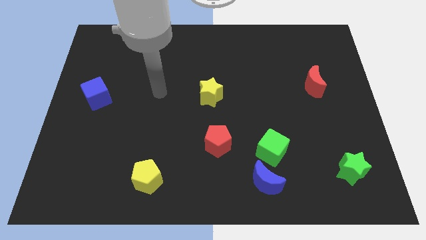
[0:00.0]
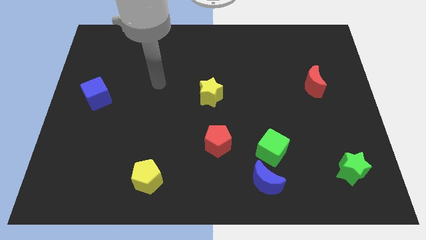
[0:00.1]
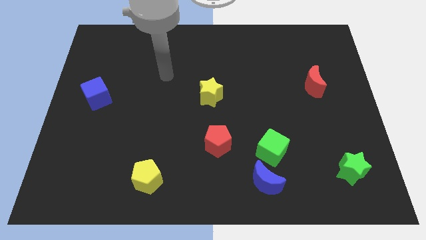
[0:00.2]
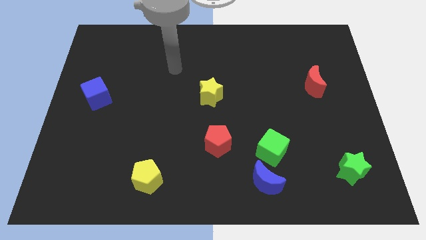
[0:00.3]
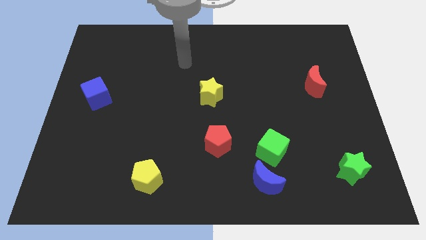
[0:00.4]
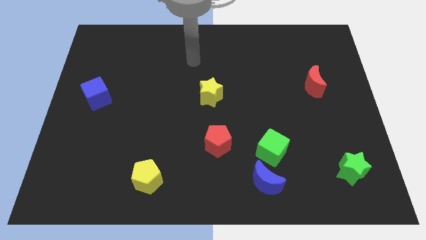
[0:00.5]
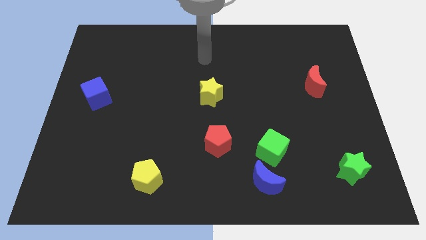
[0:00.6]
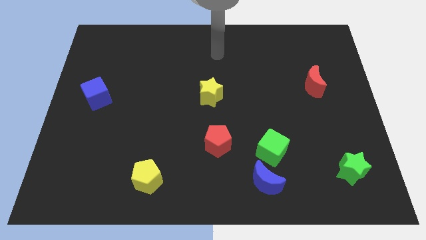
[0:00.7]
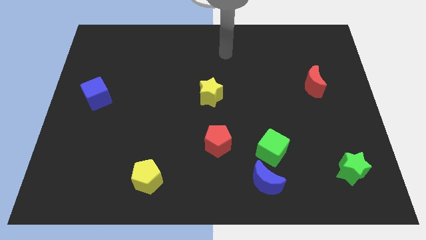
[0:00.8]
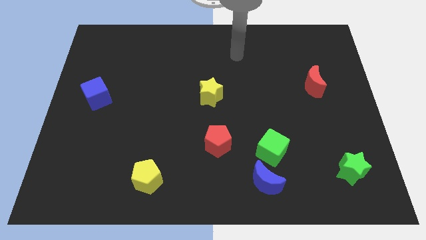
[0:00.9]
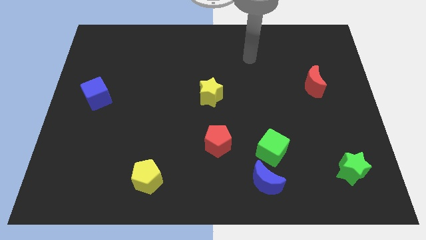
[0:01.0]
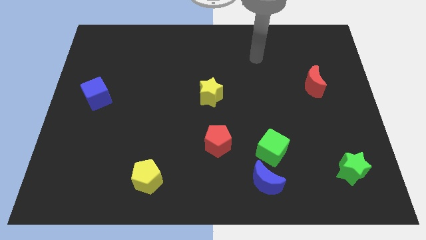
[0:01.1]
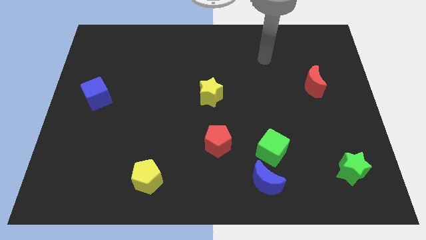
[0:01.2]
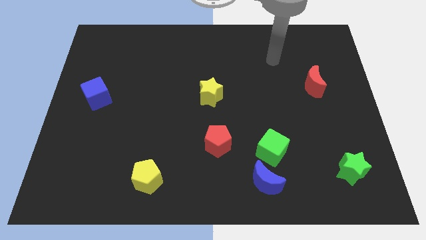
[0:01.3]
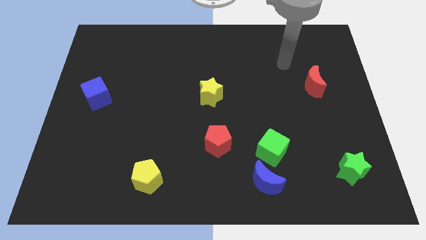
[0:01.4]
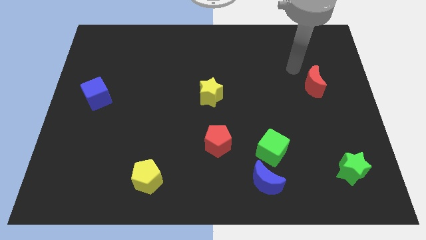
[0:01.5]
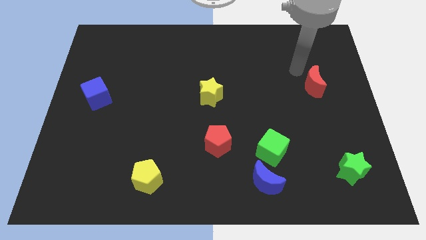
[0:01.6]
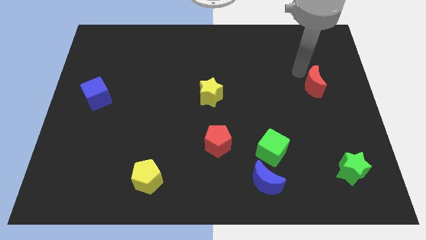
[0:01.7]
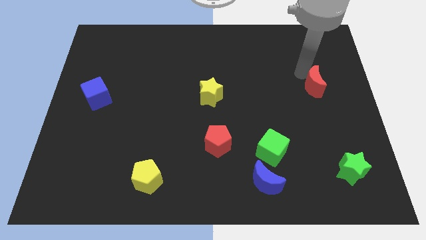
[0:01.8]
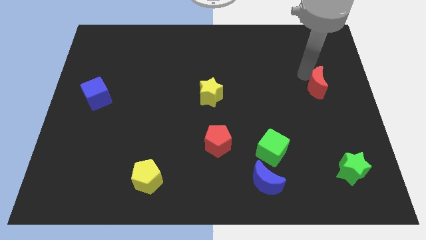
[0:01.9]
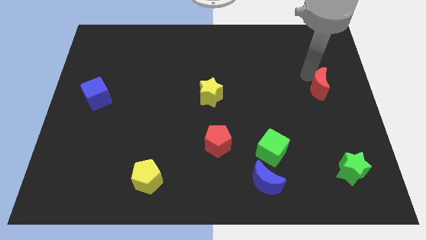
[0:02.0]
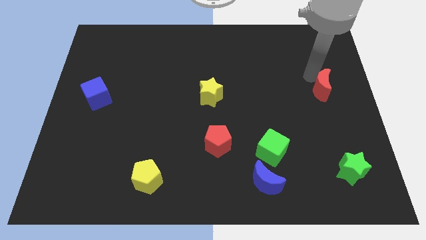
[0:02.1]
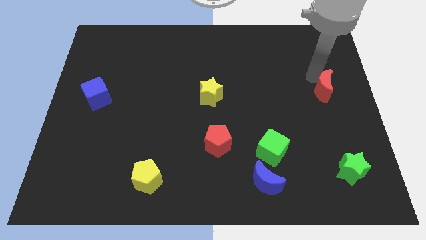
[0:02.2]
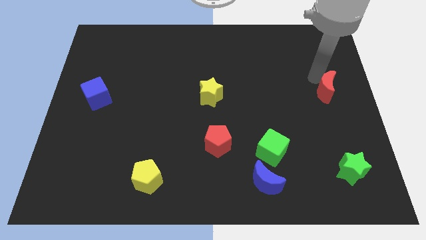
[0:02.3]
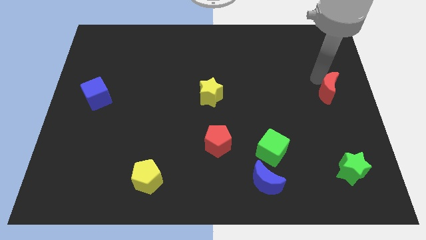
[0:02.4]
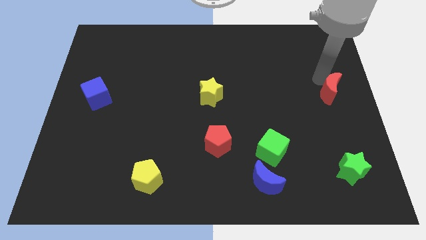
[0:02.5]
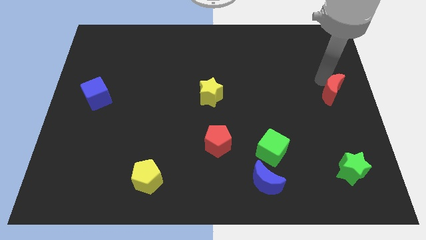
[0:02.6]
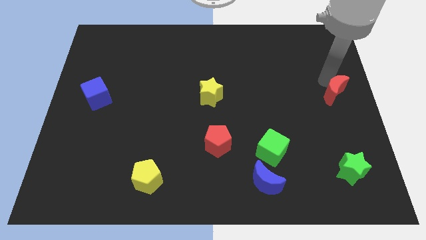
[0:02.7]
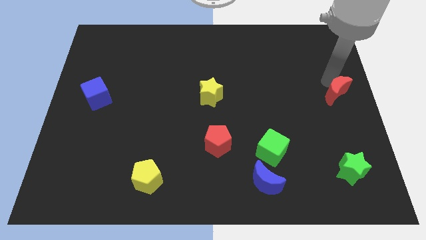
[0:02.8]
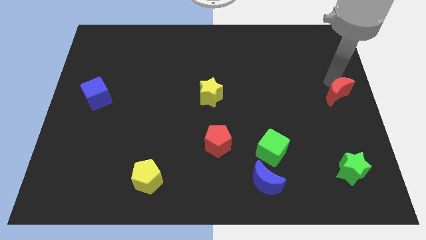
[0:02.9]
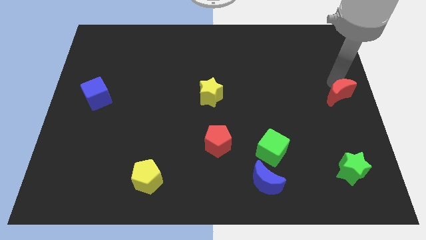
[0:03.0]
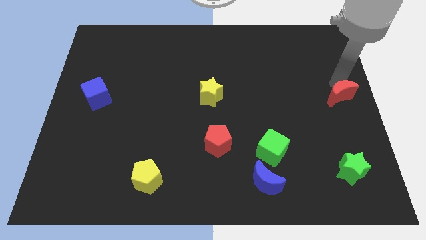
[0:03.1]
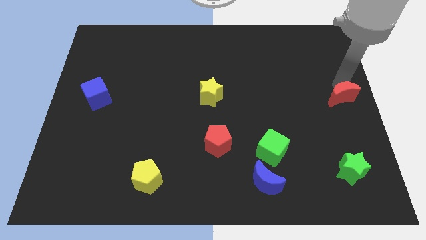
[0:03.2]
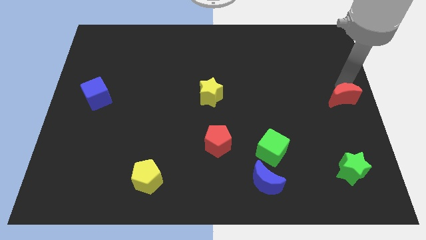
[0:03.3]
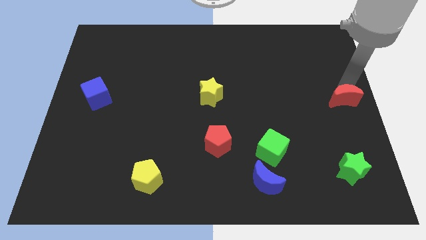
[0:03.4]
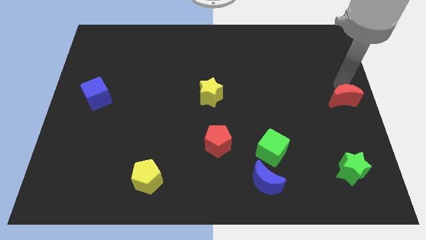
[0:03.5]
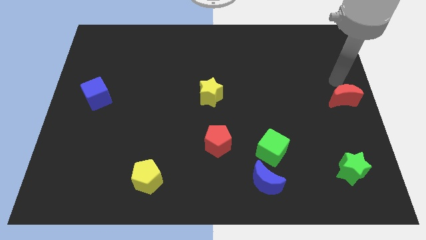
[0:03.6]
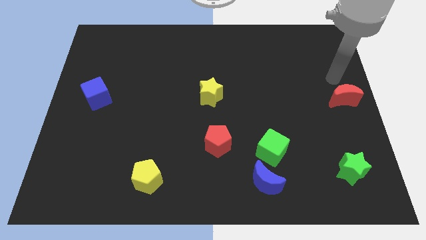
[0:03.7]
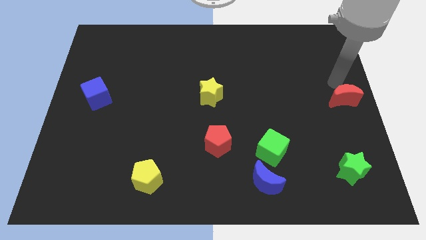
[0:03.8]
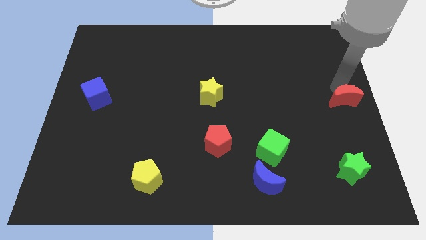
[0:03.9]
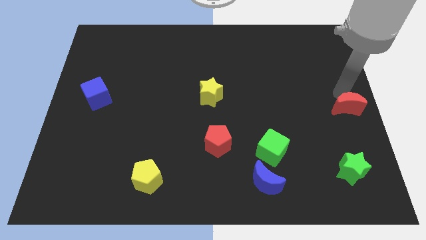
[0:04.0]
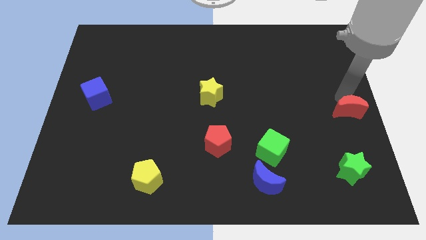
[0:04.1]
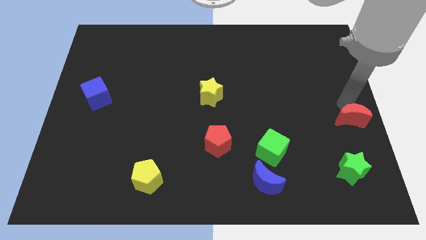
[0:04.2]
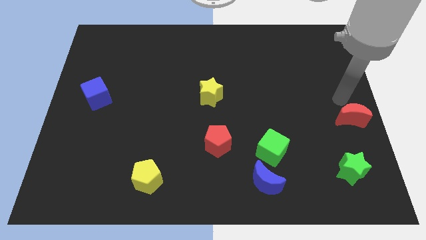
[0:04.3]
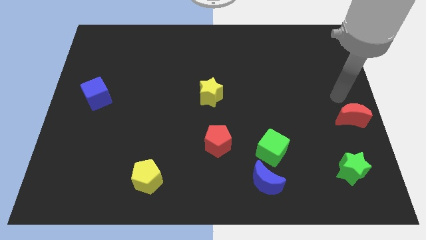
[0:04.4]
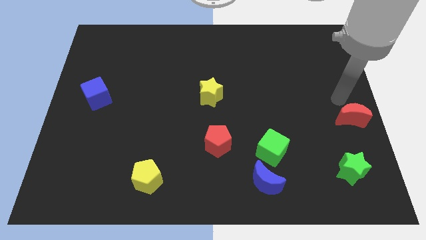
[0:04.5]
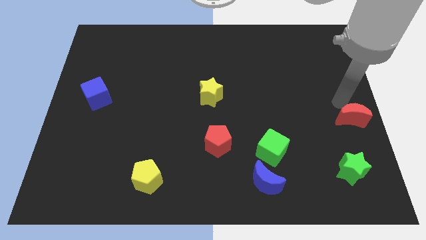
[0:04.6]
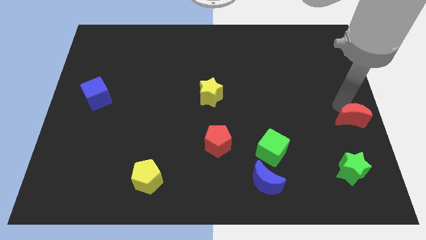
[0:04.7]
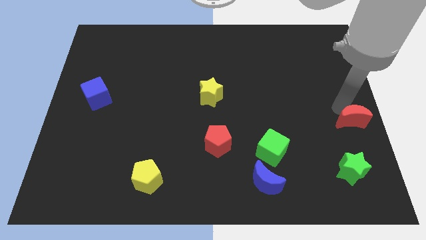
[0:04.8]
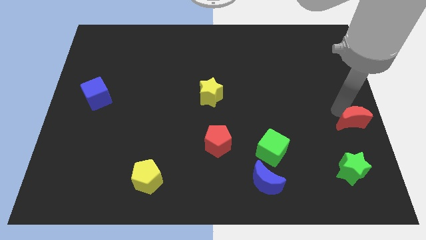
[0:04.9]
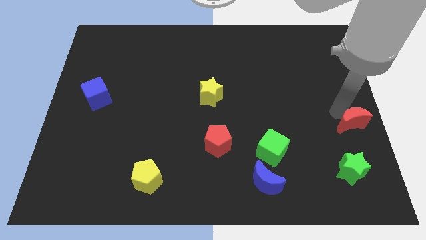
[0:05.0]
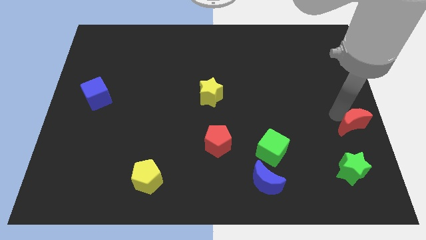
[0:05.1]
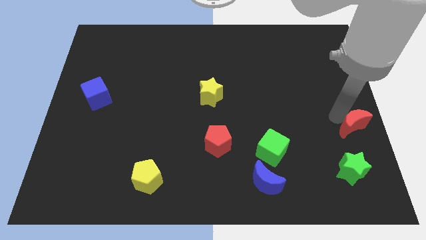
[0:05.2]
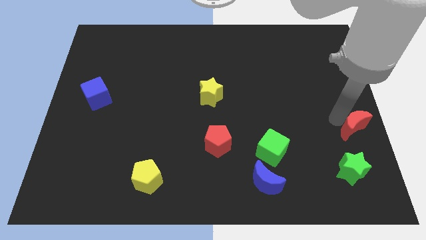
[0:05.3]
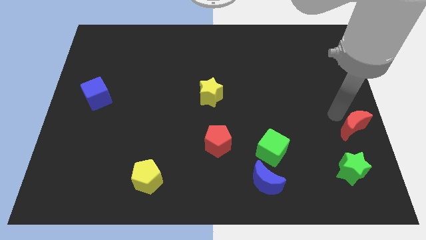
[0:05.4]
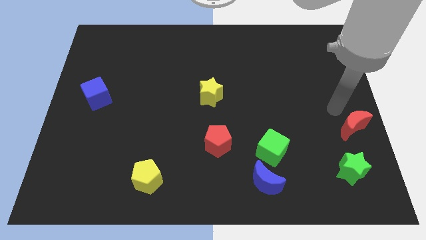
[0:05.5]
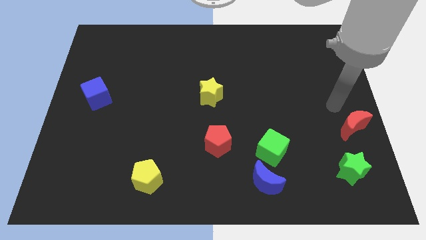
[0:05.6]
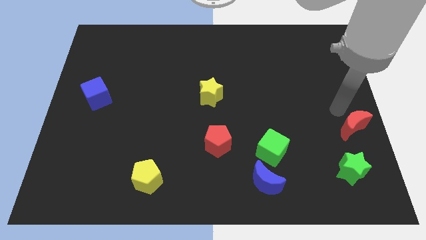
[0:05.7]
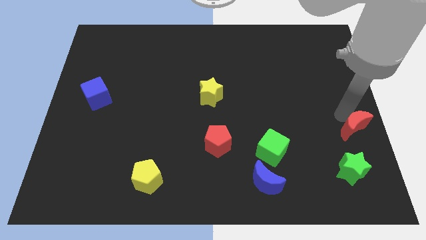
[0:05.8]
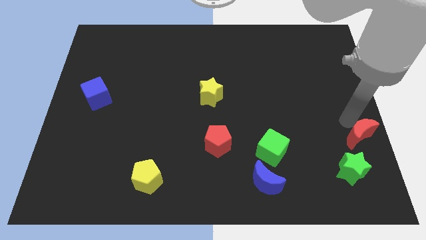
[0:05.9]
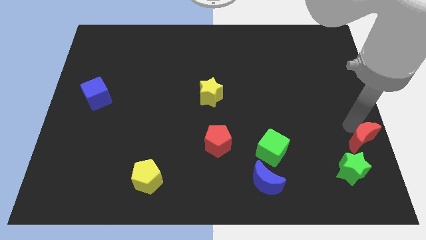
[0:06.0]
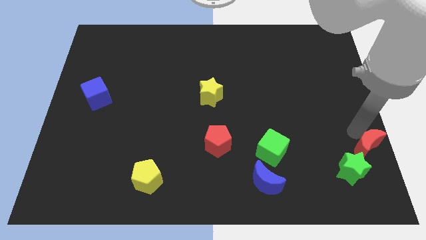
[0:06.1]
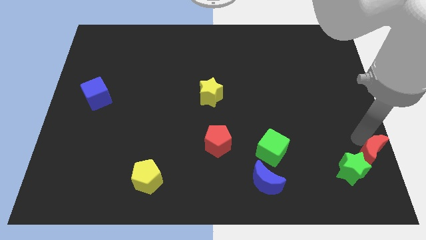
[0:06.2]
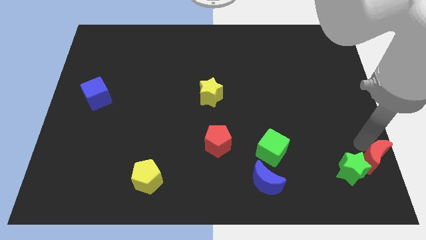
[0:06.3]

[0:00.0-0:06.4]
slide the red moon to the bottom right corner
